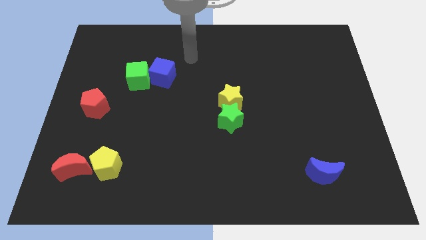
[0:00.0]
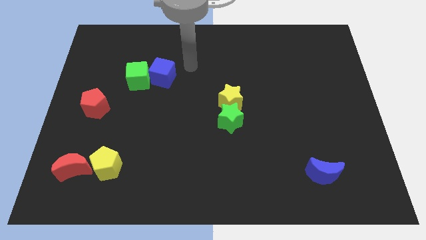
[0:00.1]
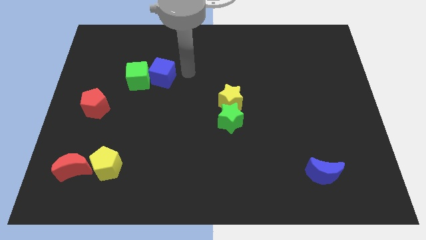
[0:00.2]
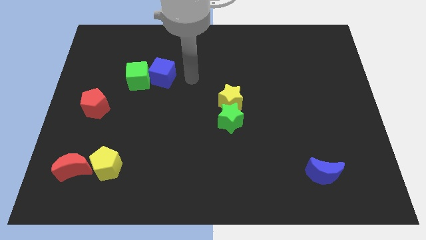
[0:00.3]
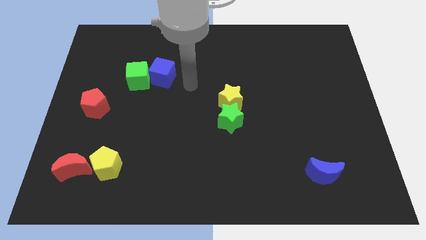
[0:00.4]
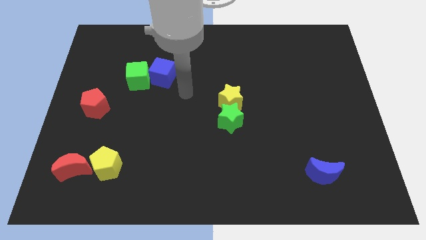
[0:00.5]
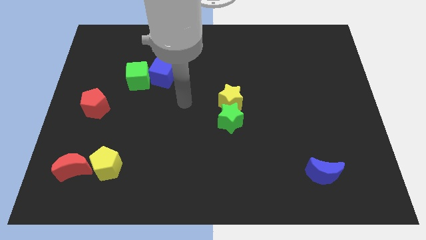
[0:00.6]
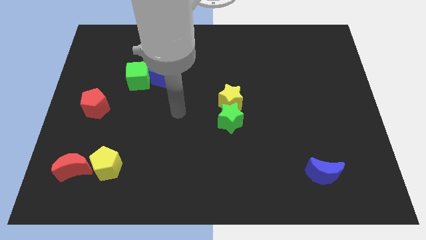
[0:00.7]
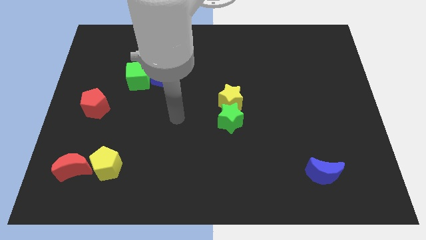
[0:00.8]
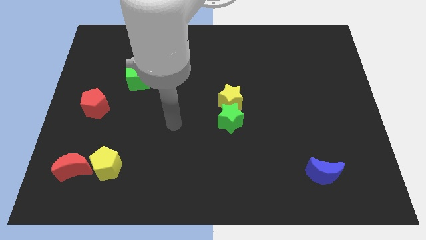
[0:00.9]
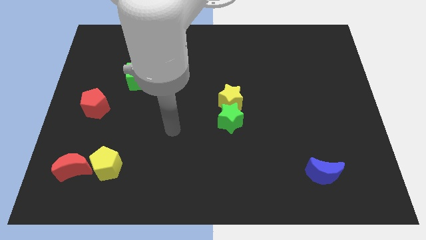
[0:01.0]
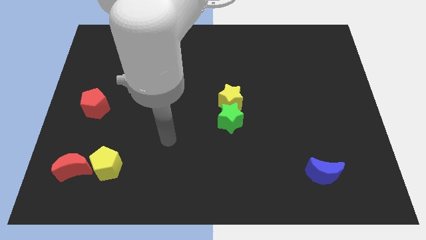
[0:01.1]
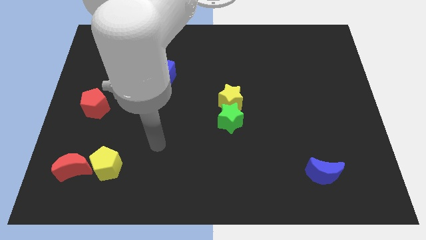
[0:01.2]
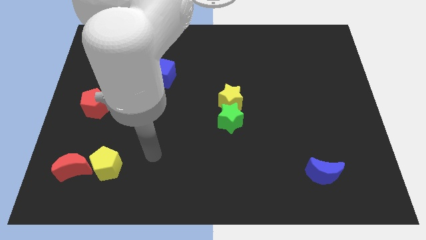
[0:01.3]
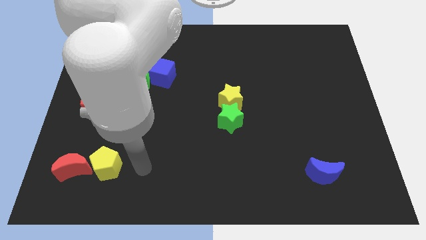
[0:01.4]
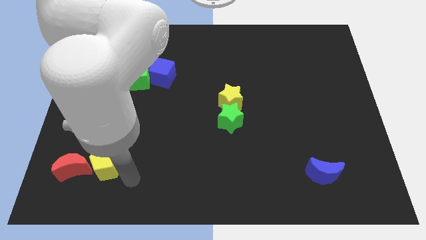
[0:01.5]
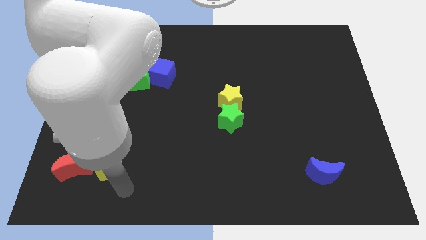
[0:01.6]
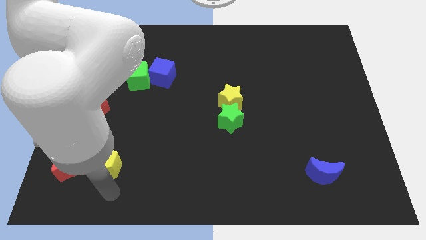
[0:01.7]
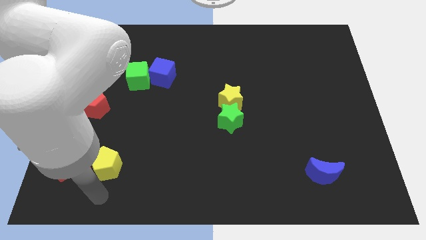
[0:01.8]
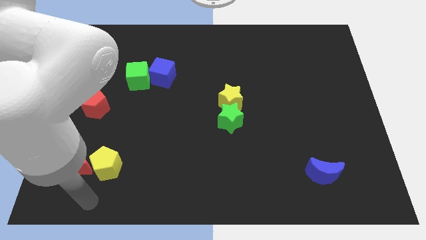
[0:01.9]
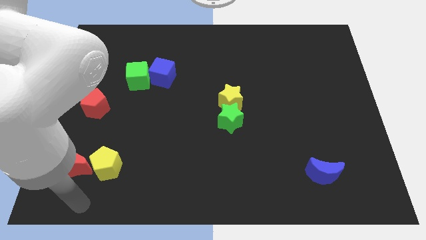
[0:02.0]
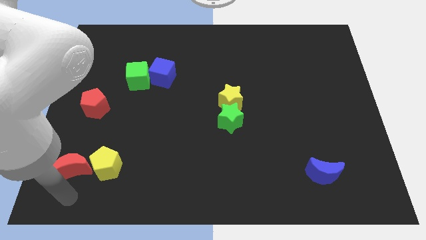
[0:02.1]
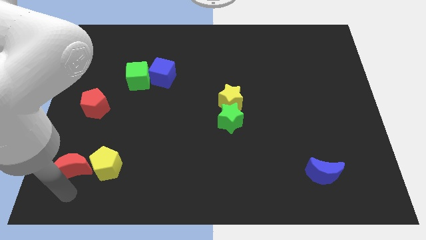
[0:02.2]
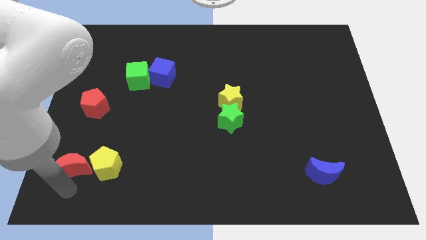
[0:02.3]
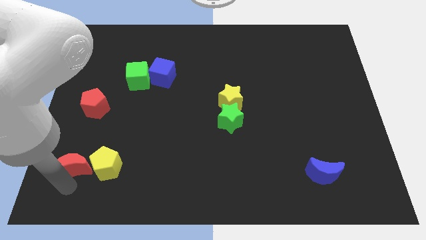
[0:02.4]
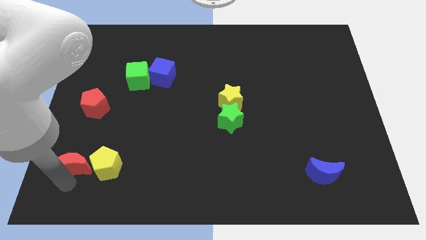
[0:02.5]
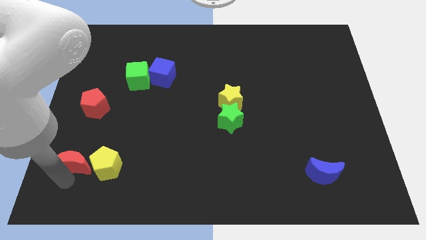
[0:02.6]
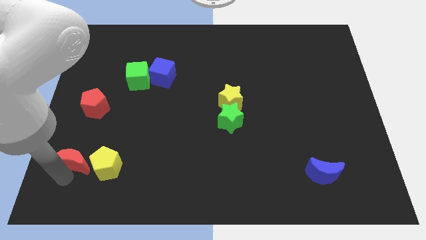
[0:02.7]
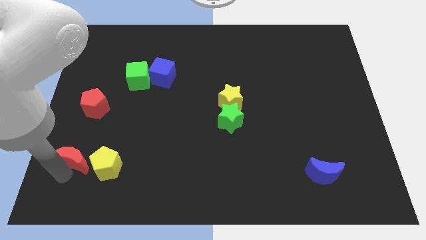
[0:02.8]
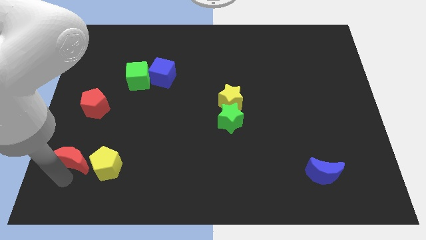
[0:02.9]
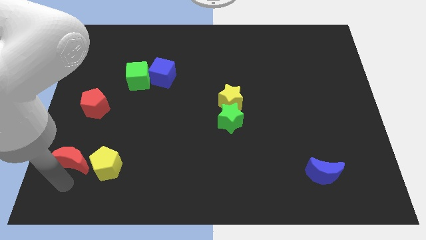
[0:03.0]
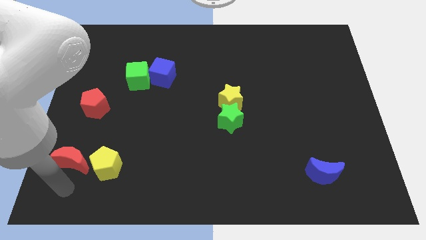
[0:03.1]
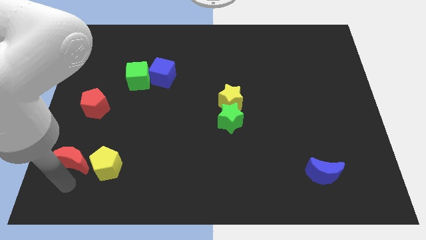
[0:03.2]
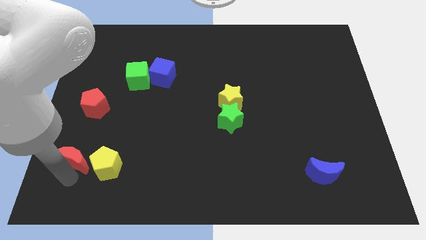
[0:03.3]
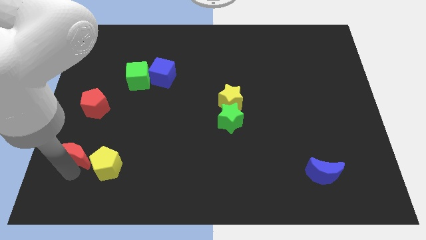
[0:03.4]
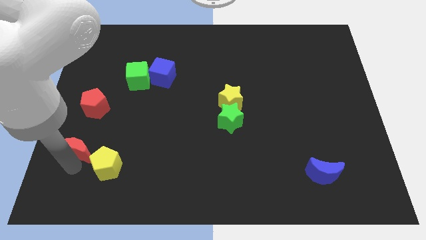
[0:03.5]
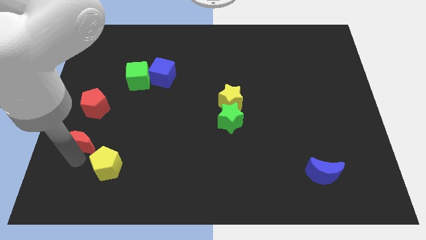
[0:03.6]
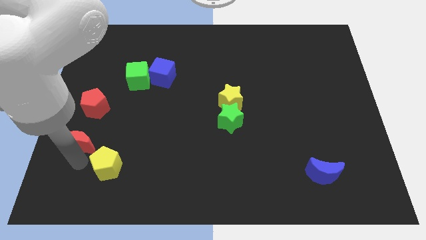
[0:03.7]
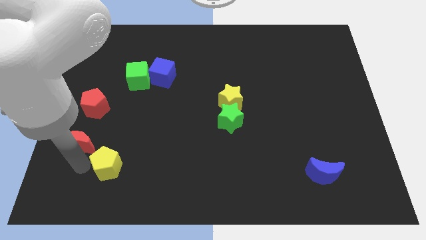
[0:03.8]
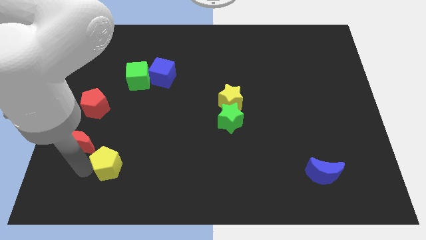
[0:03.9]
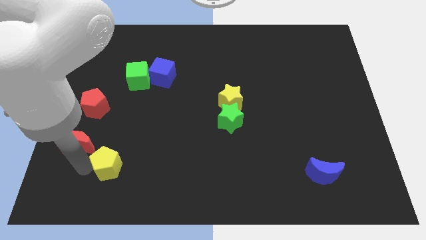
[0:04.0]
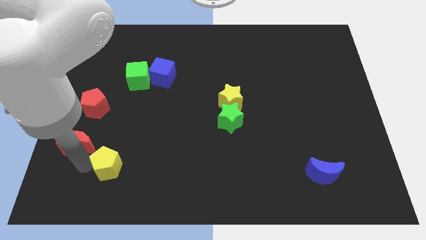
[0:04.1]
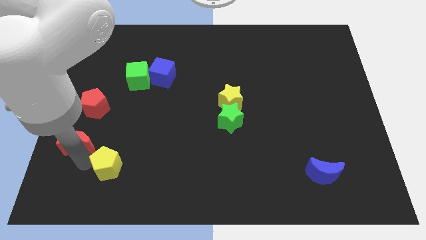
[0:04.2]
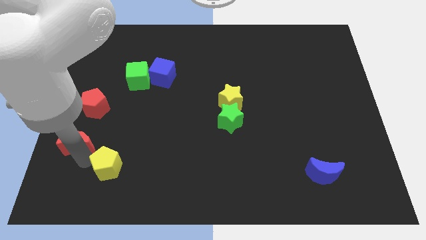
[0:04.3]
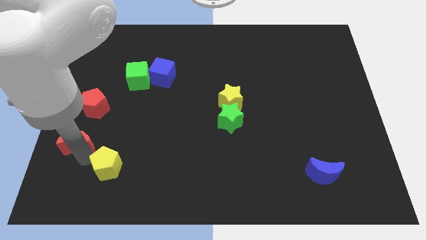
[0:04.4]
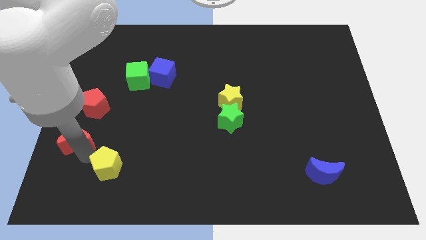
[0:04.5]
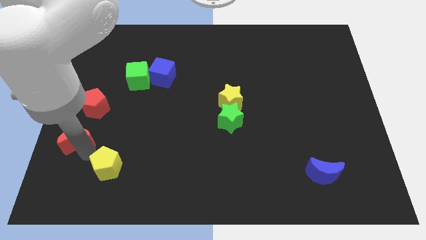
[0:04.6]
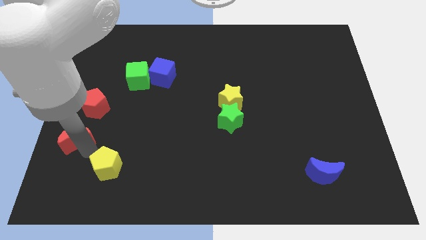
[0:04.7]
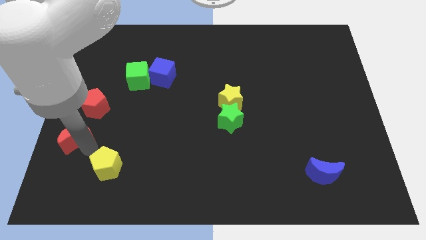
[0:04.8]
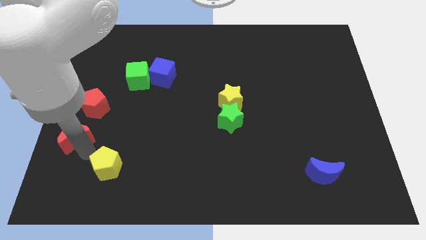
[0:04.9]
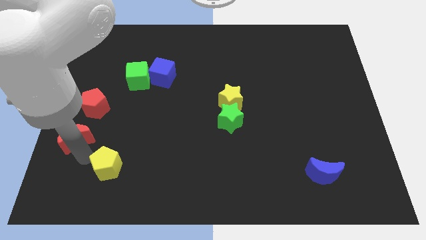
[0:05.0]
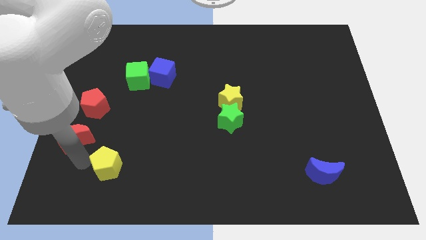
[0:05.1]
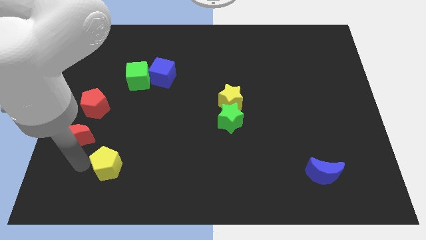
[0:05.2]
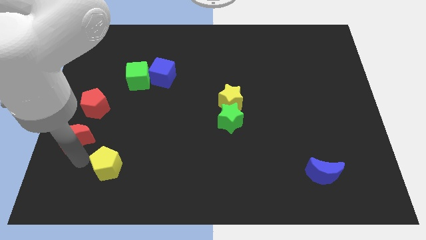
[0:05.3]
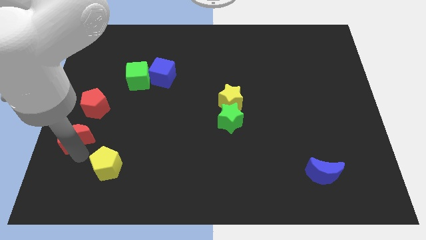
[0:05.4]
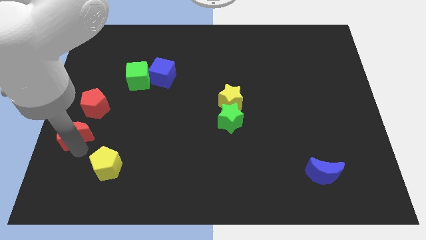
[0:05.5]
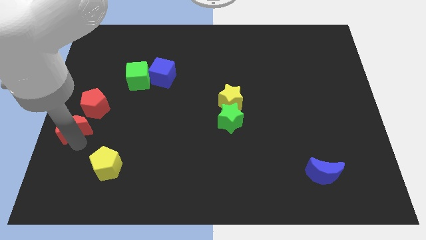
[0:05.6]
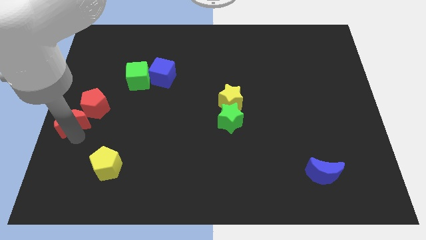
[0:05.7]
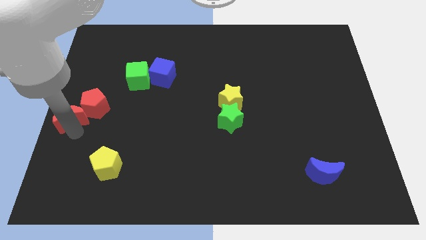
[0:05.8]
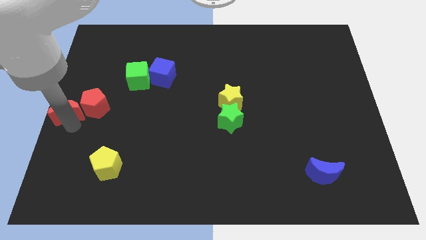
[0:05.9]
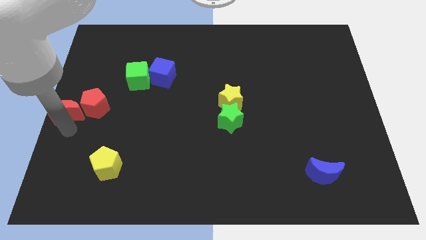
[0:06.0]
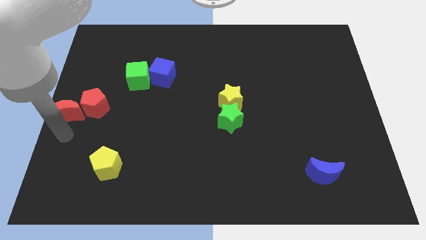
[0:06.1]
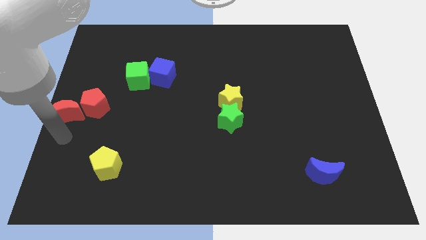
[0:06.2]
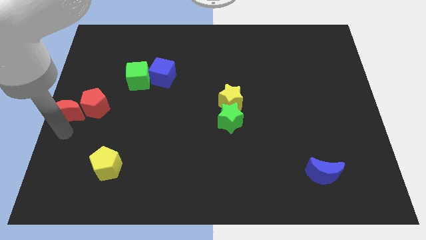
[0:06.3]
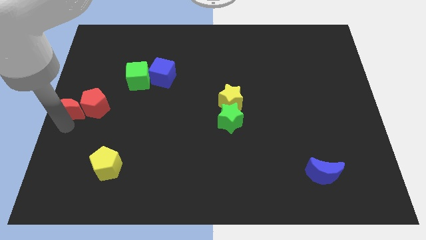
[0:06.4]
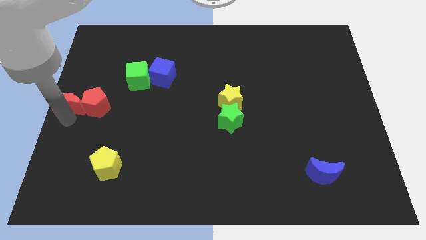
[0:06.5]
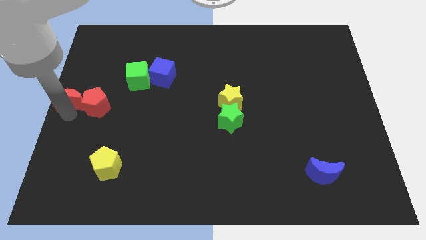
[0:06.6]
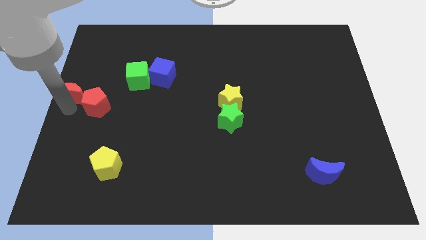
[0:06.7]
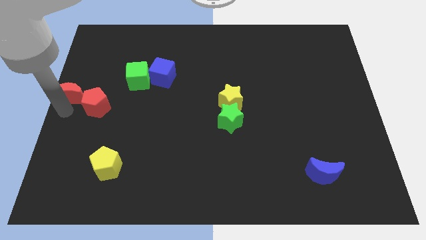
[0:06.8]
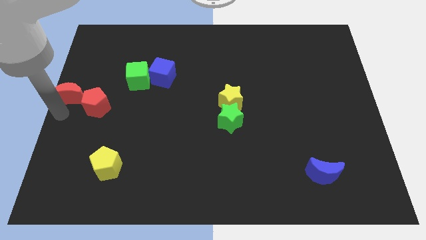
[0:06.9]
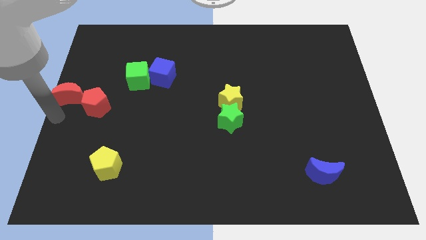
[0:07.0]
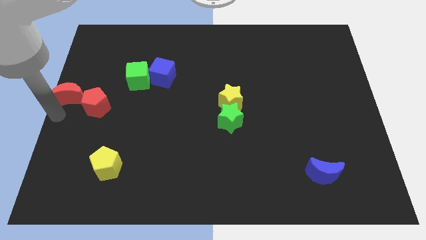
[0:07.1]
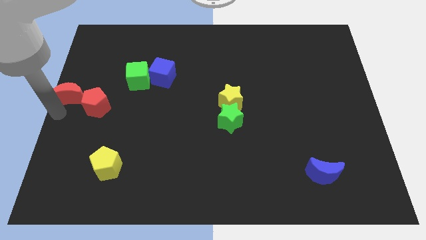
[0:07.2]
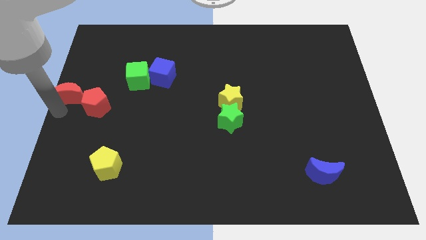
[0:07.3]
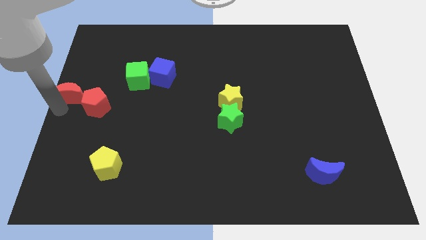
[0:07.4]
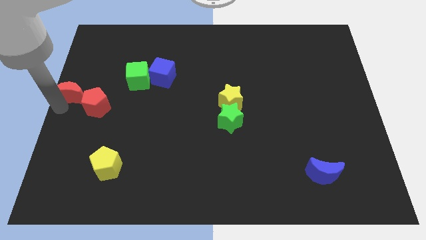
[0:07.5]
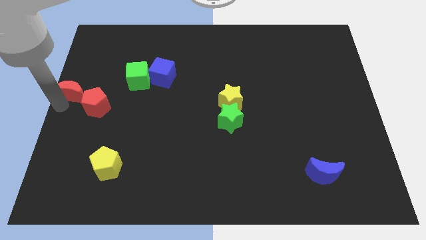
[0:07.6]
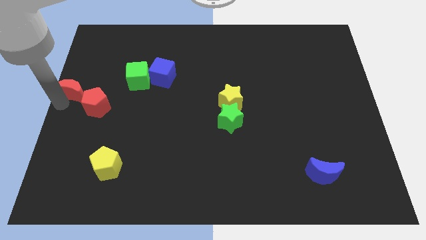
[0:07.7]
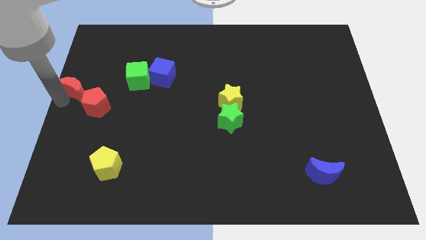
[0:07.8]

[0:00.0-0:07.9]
slide the red moon upwards
